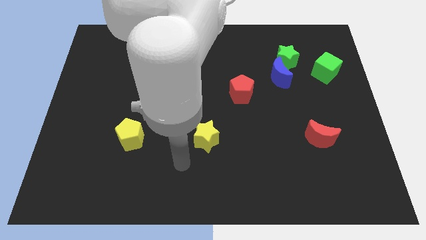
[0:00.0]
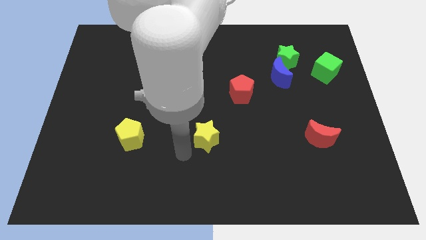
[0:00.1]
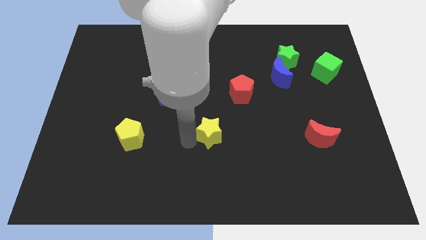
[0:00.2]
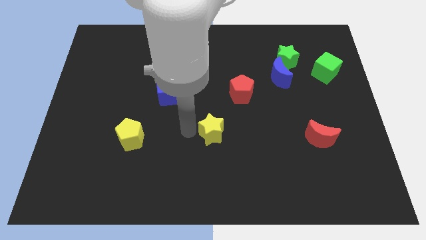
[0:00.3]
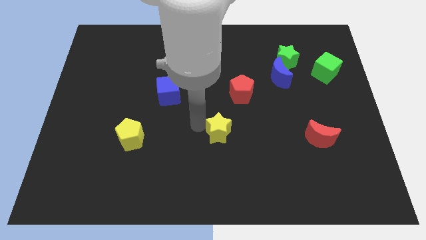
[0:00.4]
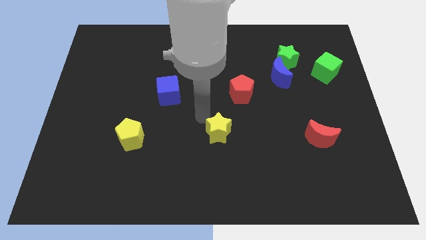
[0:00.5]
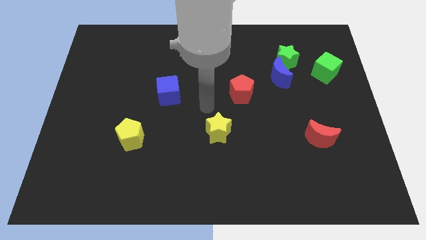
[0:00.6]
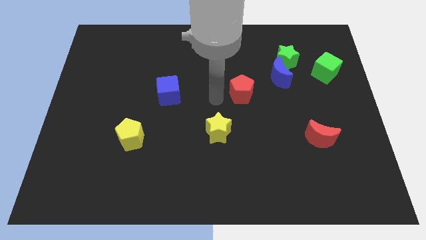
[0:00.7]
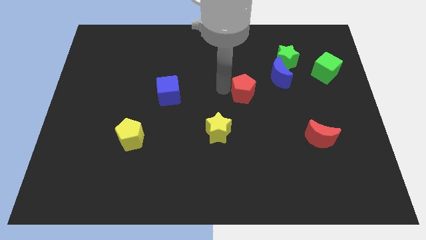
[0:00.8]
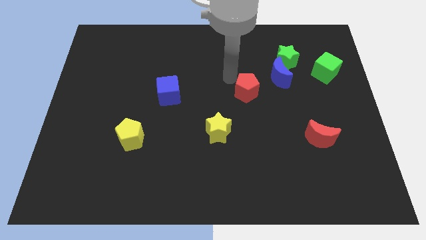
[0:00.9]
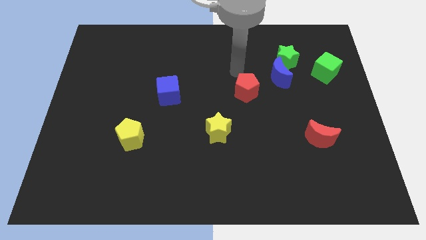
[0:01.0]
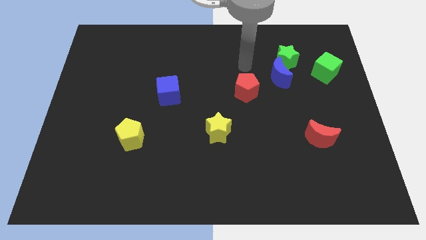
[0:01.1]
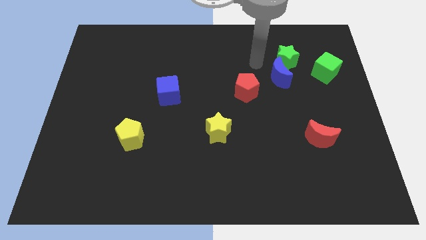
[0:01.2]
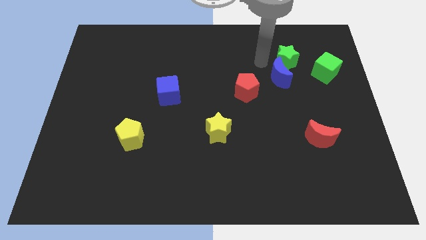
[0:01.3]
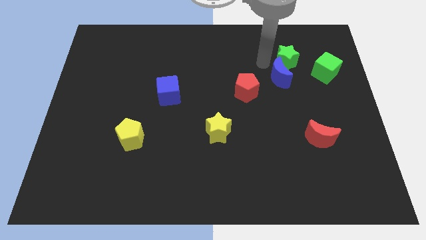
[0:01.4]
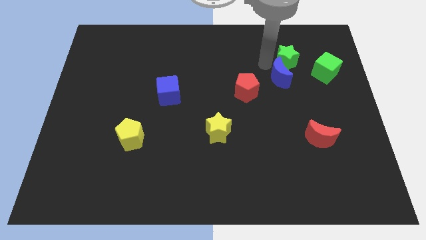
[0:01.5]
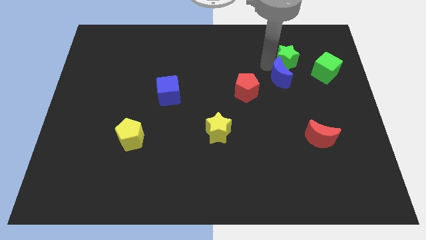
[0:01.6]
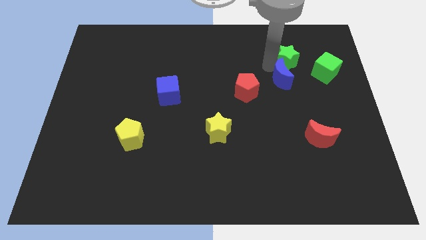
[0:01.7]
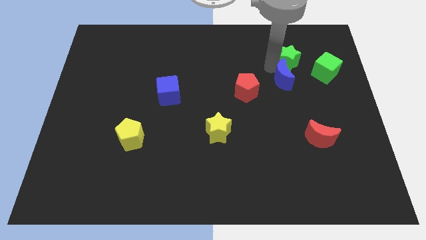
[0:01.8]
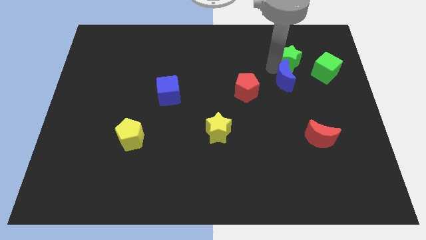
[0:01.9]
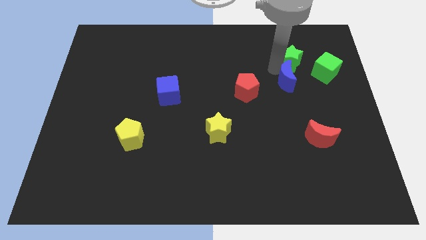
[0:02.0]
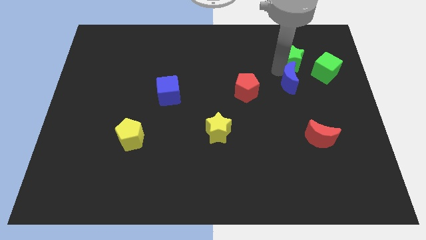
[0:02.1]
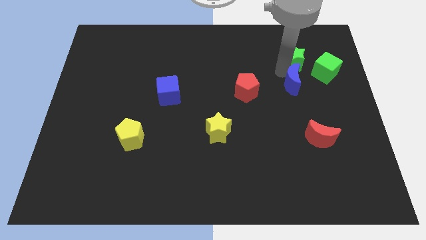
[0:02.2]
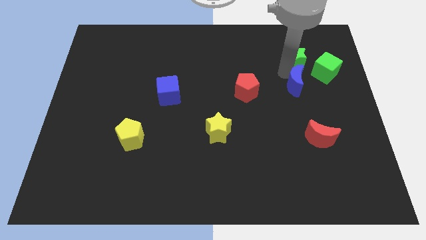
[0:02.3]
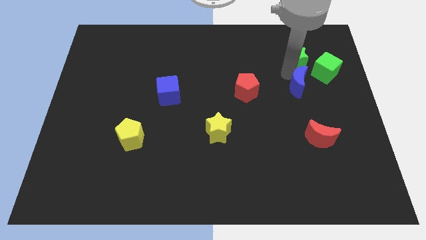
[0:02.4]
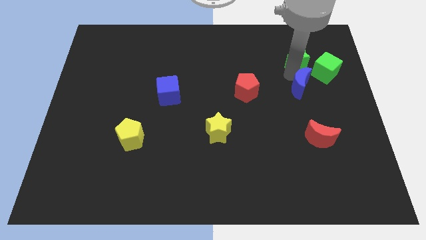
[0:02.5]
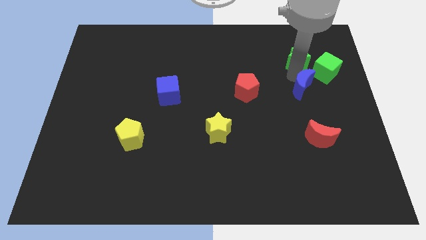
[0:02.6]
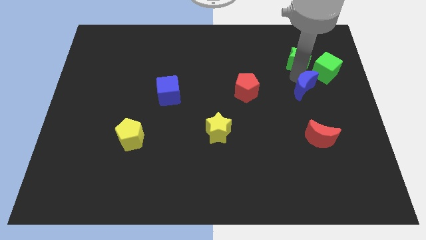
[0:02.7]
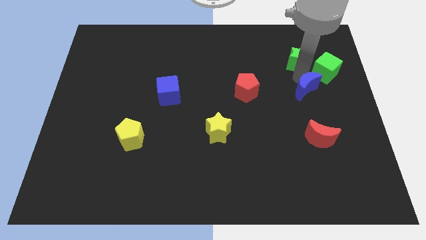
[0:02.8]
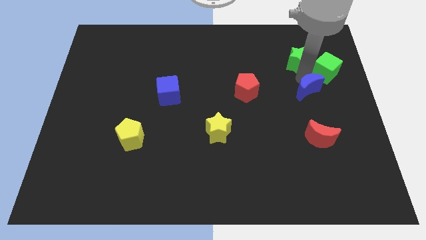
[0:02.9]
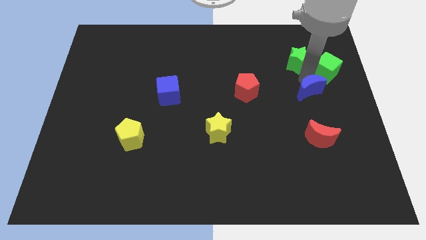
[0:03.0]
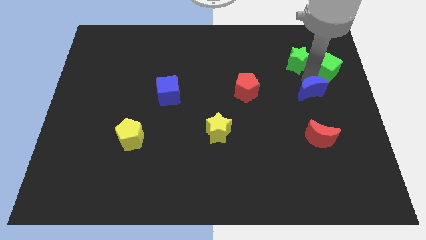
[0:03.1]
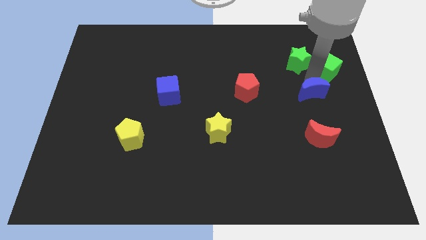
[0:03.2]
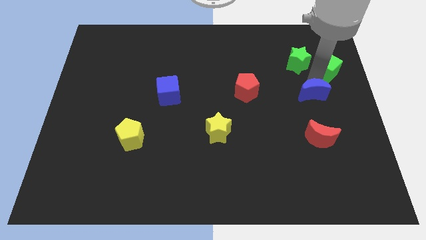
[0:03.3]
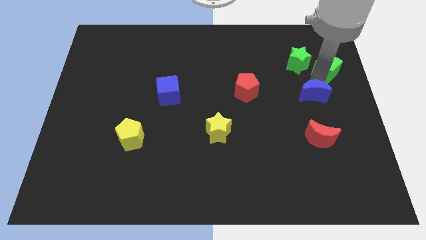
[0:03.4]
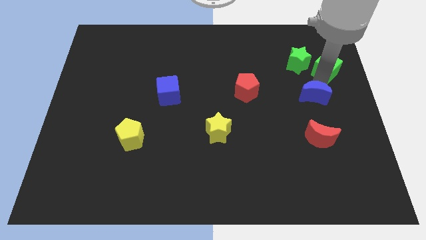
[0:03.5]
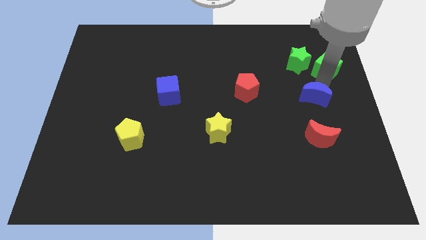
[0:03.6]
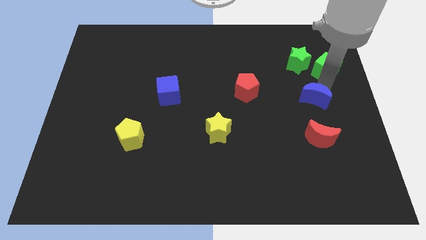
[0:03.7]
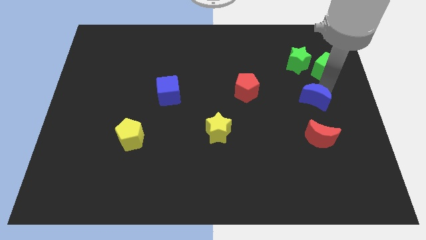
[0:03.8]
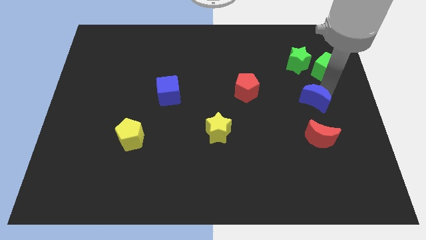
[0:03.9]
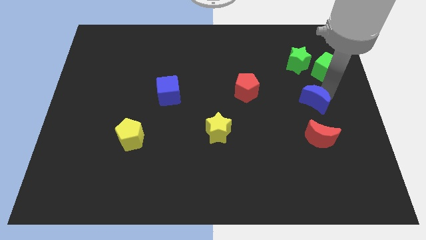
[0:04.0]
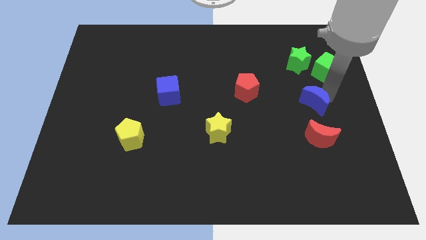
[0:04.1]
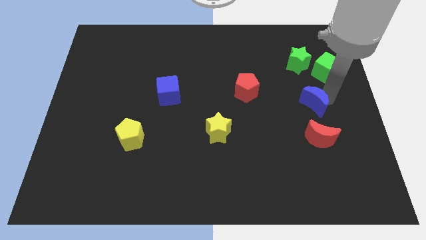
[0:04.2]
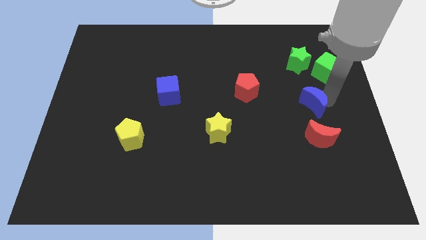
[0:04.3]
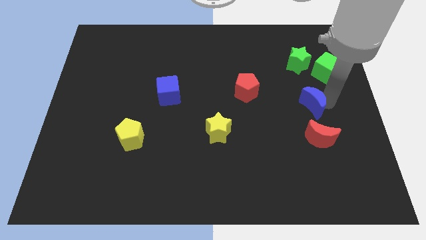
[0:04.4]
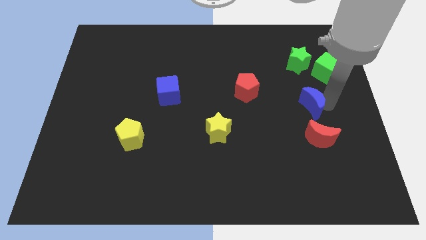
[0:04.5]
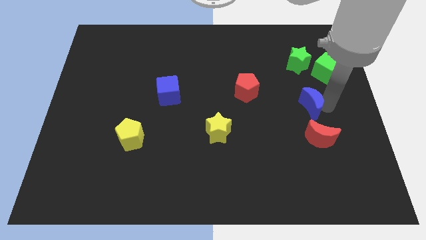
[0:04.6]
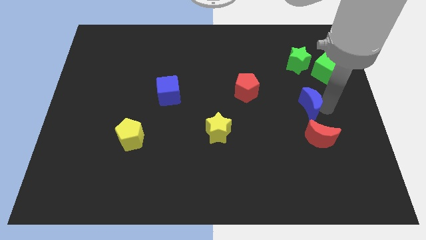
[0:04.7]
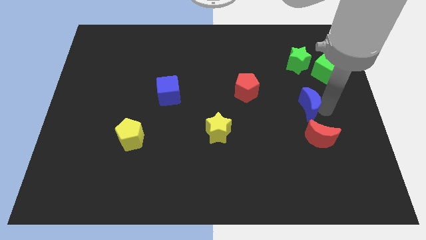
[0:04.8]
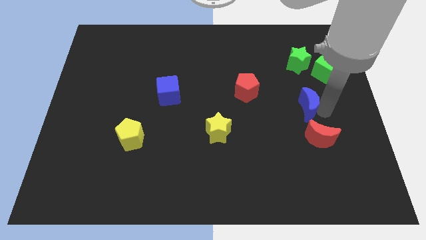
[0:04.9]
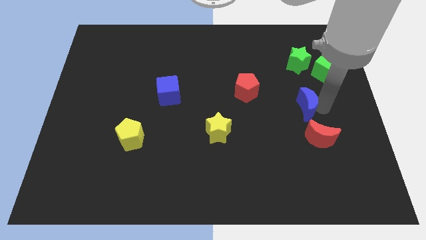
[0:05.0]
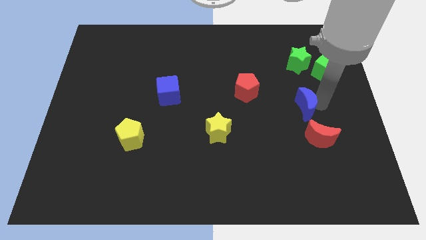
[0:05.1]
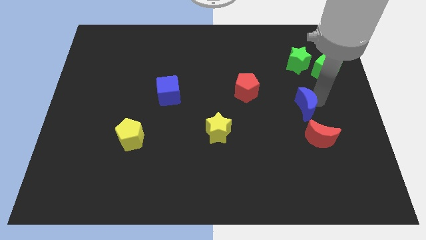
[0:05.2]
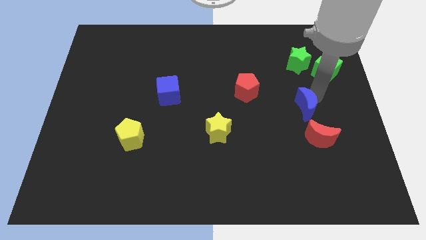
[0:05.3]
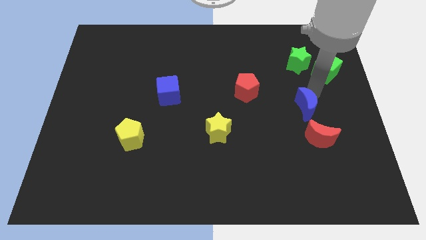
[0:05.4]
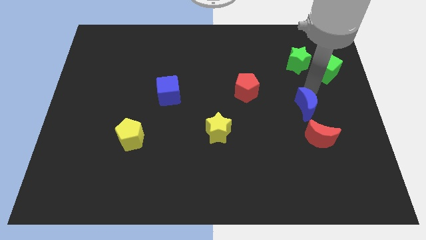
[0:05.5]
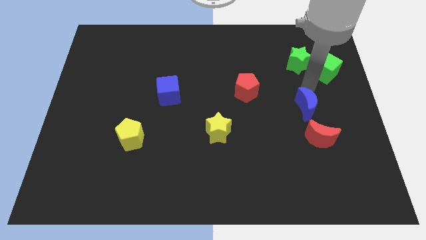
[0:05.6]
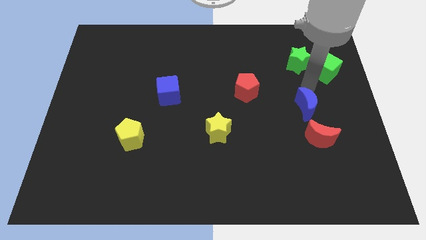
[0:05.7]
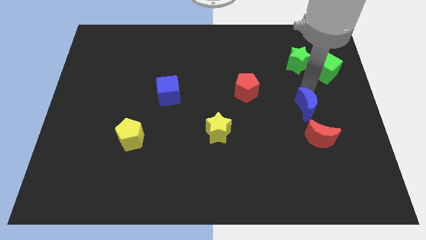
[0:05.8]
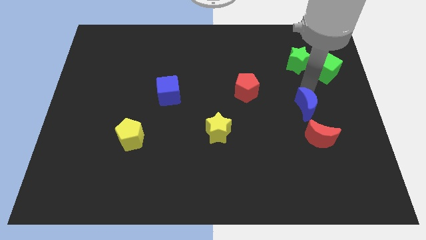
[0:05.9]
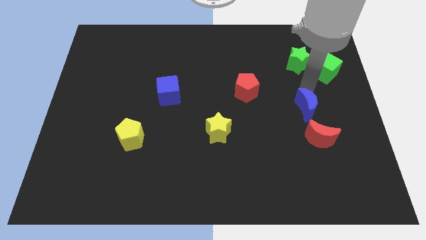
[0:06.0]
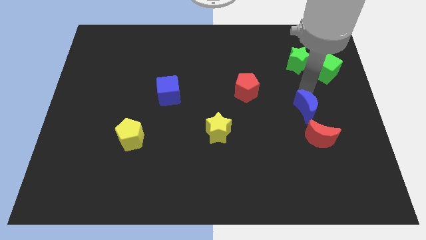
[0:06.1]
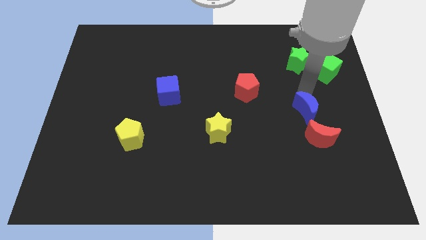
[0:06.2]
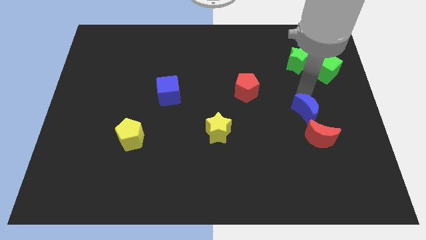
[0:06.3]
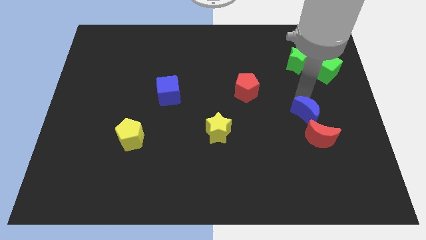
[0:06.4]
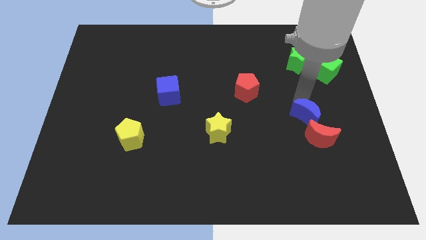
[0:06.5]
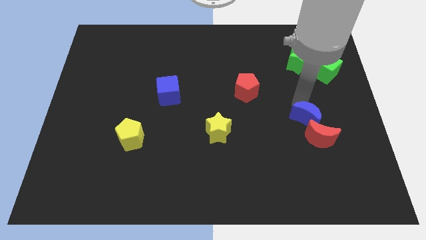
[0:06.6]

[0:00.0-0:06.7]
push the blue moon towards the red moon

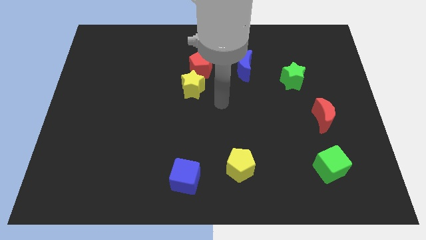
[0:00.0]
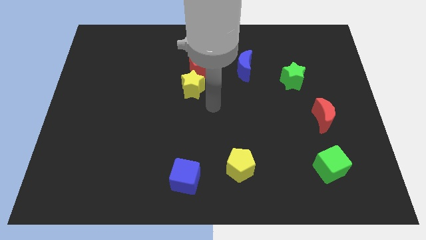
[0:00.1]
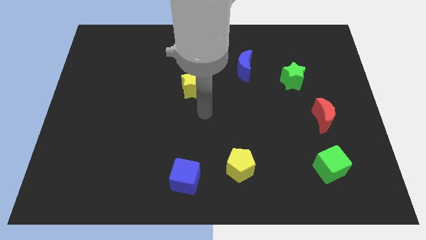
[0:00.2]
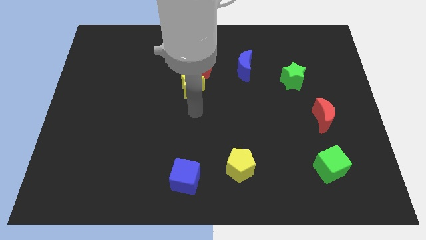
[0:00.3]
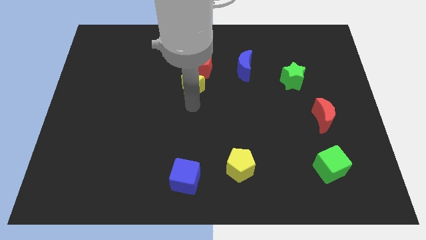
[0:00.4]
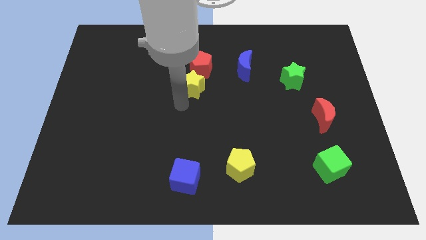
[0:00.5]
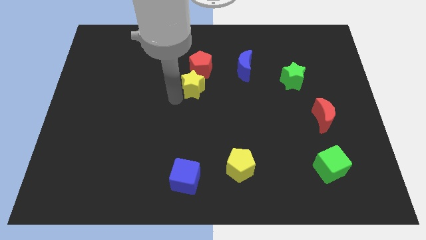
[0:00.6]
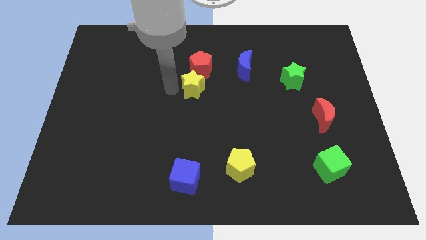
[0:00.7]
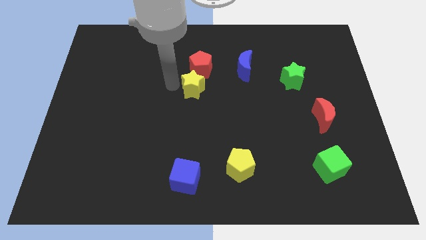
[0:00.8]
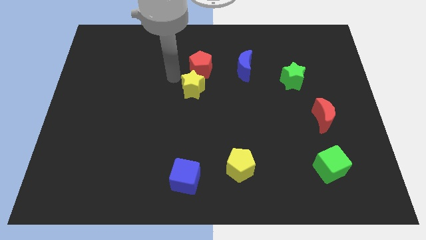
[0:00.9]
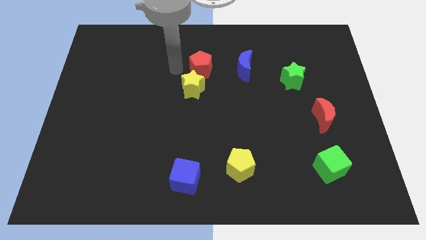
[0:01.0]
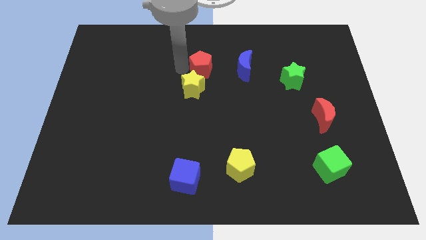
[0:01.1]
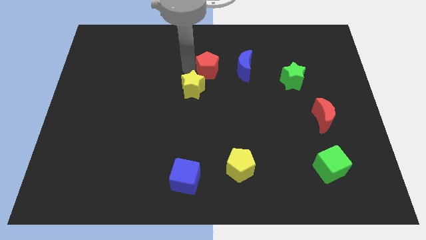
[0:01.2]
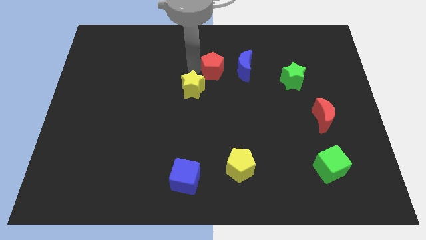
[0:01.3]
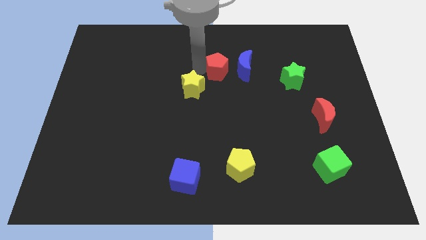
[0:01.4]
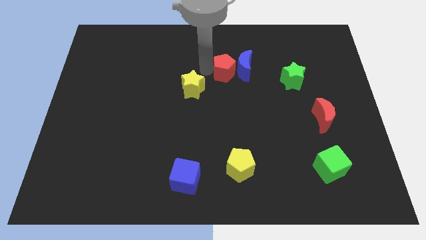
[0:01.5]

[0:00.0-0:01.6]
move the red pentagon close to the blue moon
